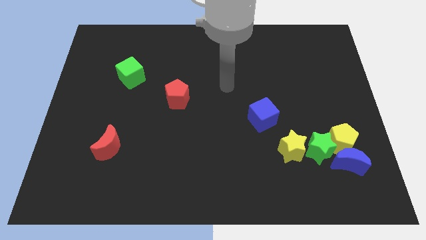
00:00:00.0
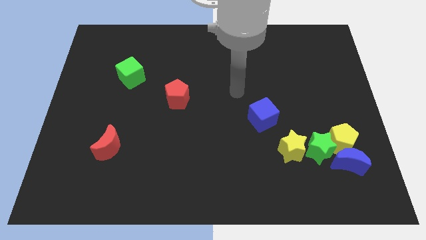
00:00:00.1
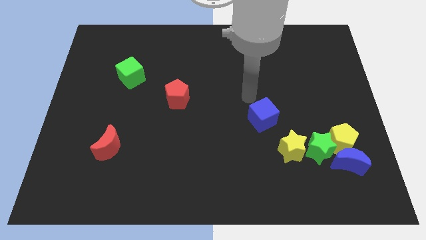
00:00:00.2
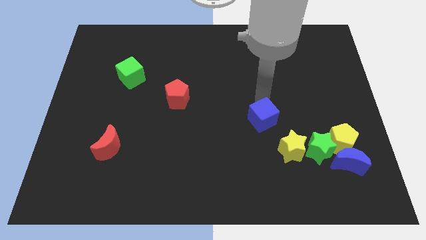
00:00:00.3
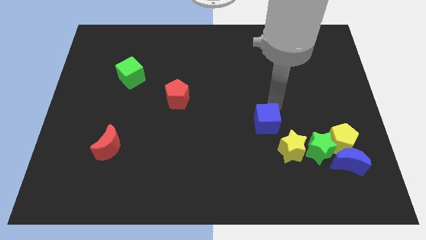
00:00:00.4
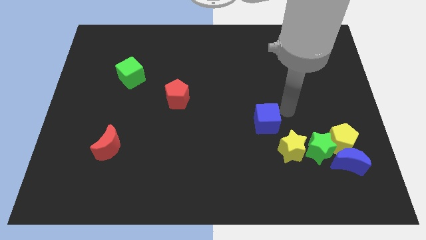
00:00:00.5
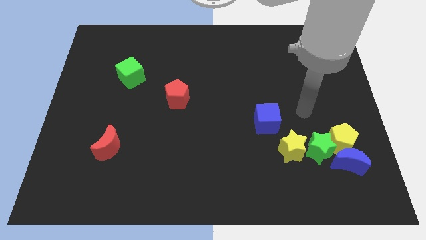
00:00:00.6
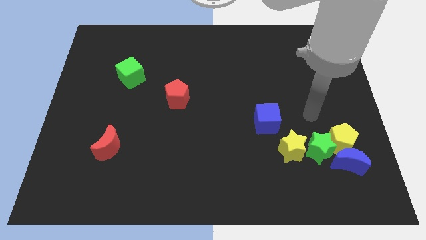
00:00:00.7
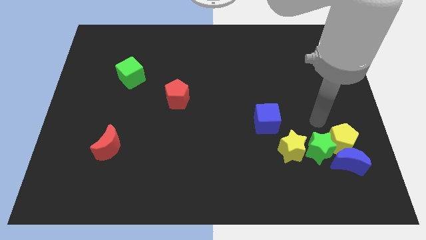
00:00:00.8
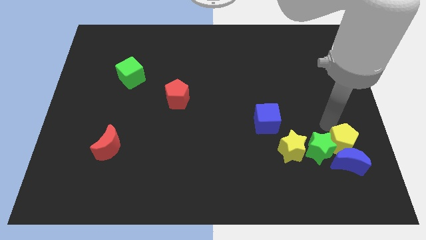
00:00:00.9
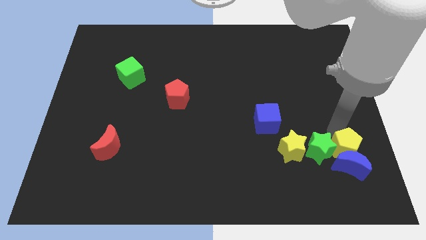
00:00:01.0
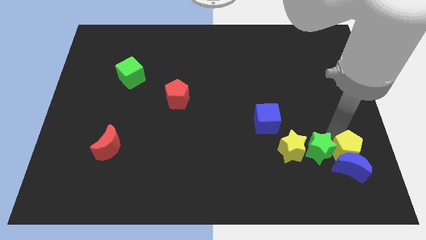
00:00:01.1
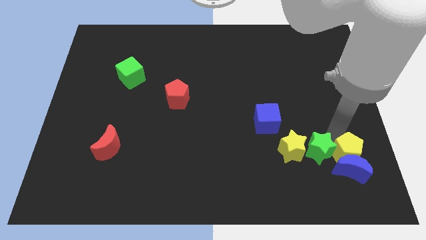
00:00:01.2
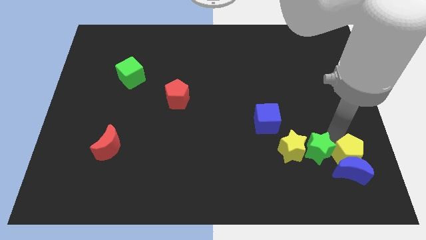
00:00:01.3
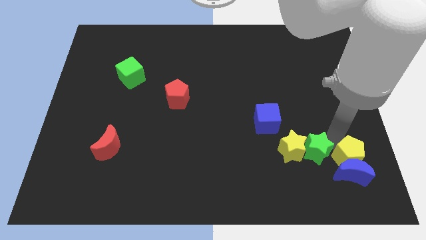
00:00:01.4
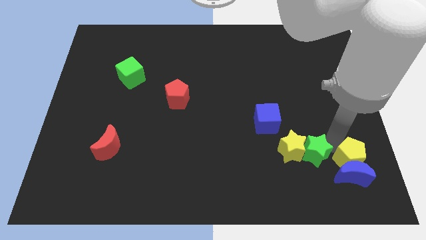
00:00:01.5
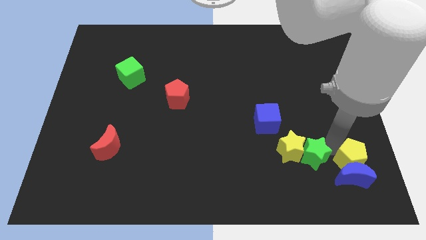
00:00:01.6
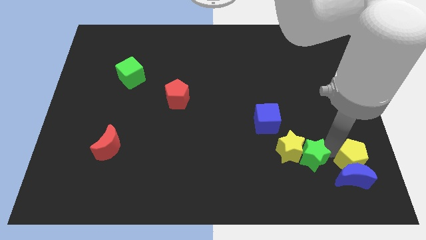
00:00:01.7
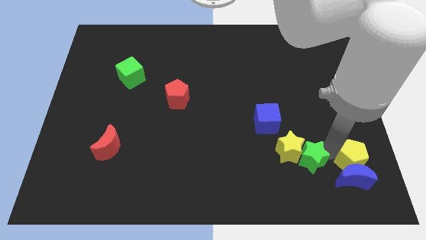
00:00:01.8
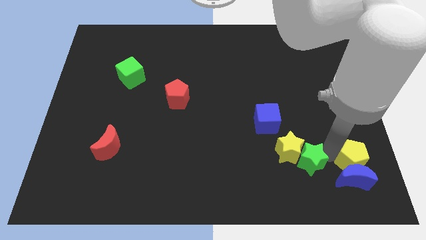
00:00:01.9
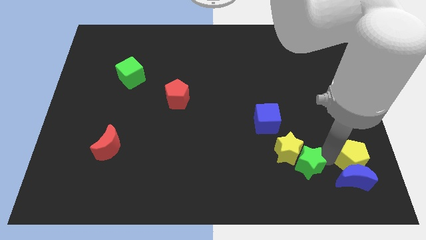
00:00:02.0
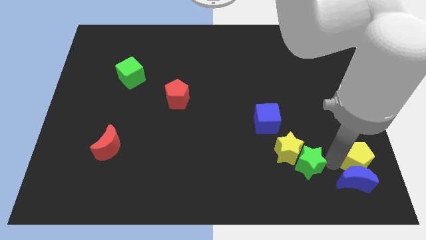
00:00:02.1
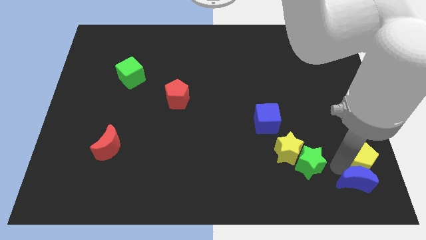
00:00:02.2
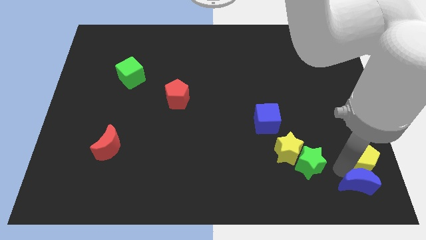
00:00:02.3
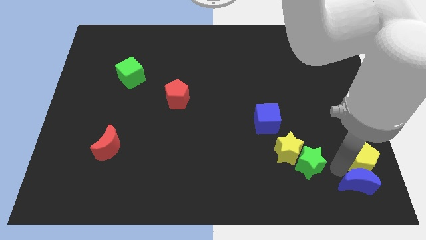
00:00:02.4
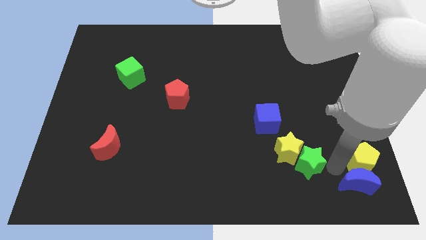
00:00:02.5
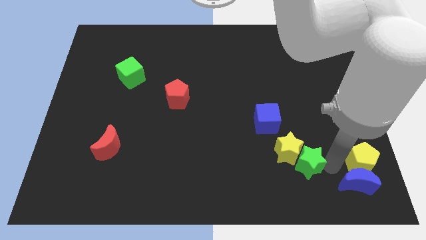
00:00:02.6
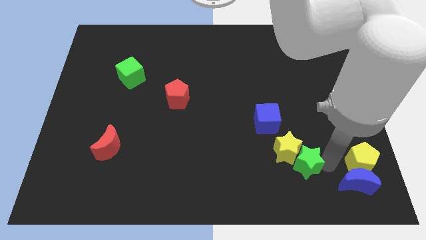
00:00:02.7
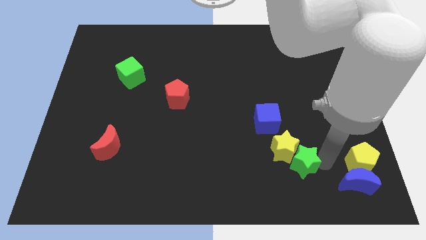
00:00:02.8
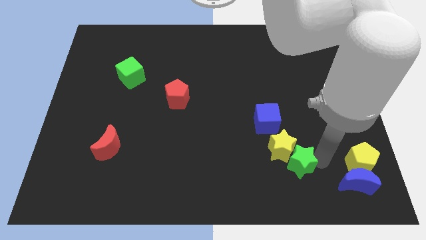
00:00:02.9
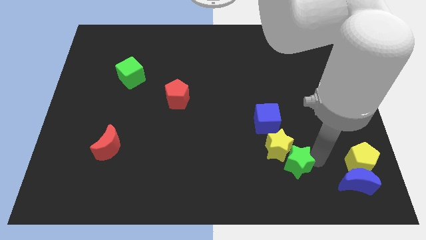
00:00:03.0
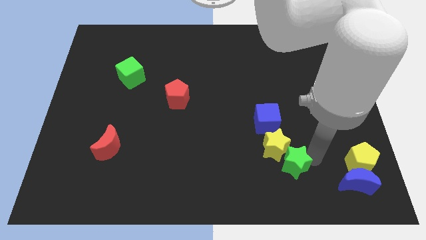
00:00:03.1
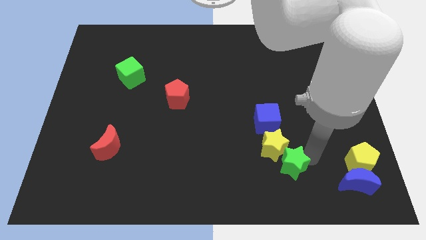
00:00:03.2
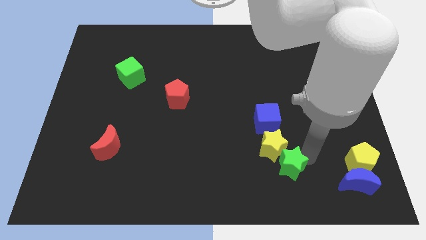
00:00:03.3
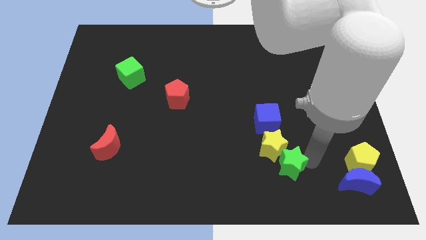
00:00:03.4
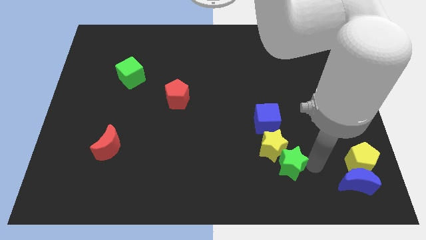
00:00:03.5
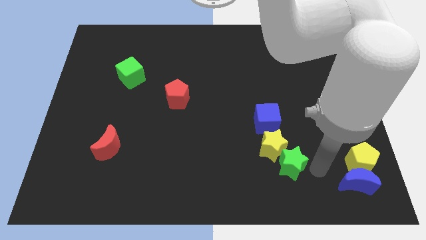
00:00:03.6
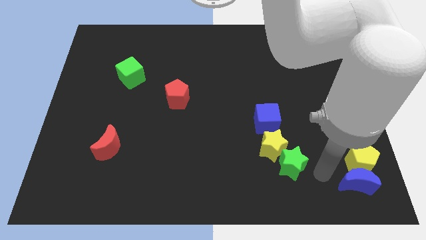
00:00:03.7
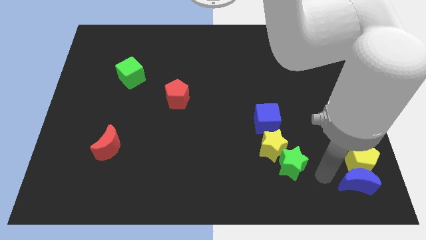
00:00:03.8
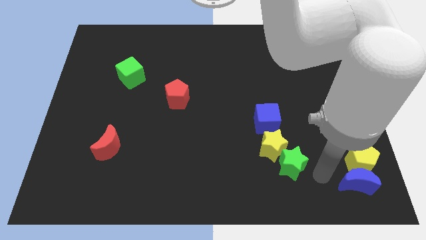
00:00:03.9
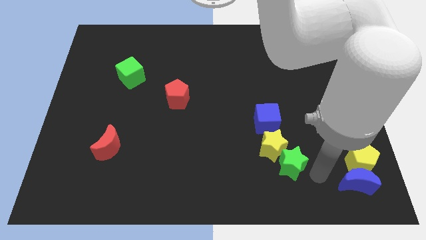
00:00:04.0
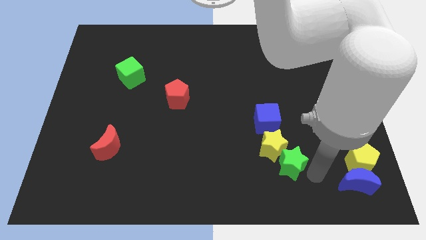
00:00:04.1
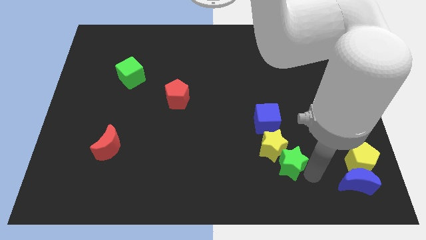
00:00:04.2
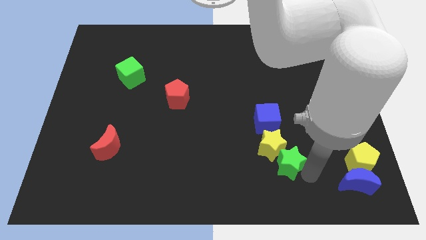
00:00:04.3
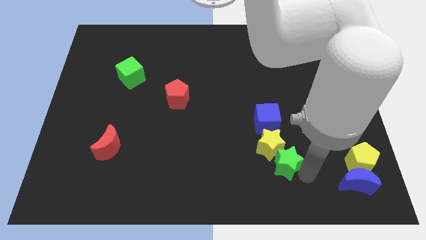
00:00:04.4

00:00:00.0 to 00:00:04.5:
push the green star a little left

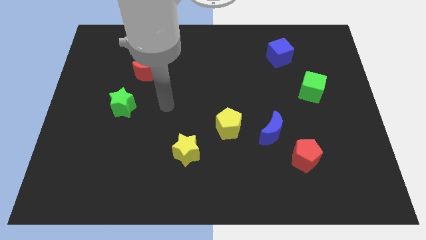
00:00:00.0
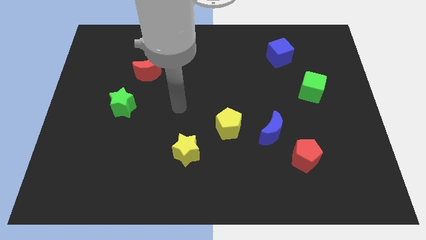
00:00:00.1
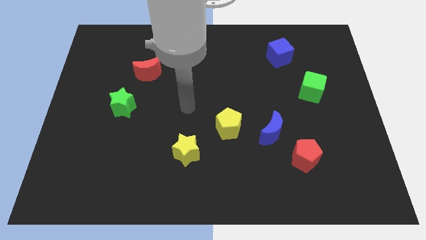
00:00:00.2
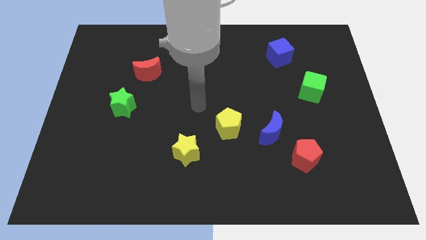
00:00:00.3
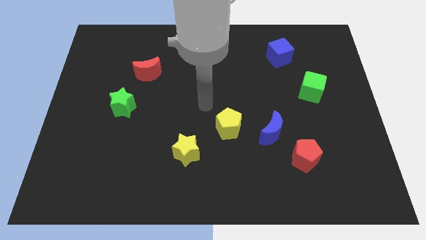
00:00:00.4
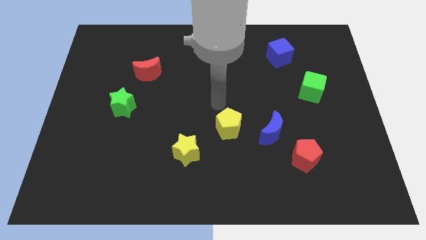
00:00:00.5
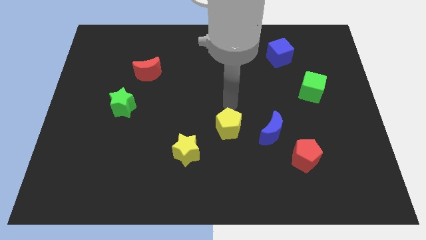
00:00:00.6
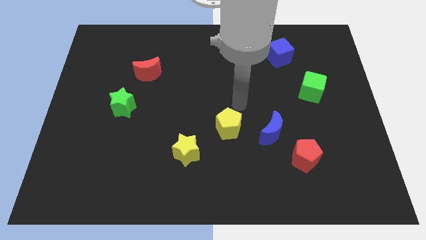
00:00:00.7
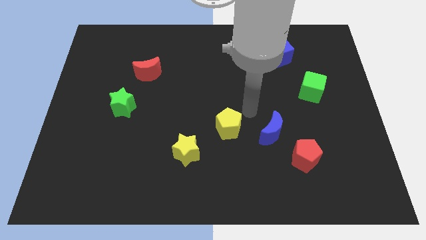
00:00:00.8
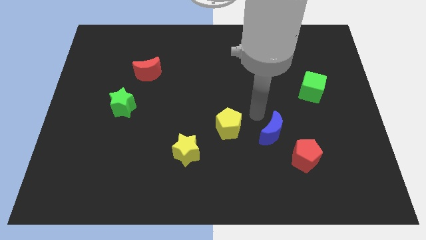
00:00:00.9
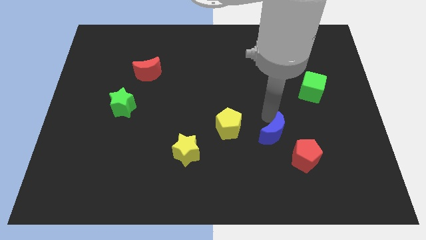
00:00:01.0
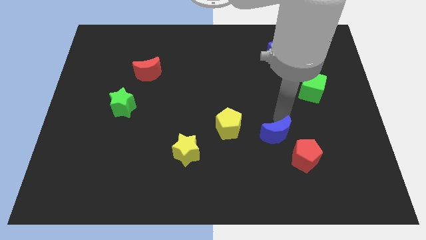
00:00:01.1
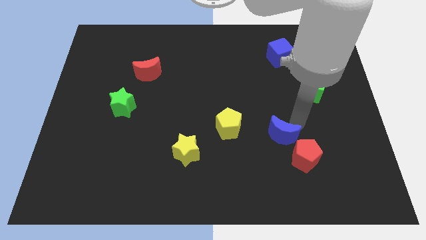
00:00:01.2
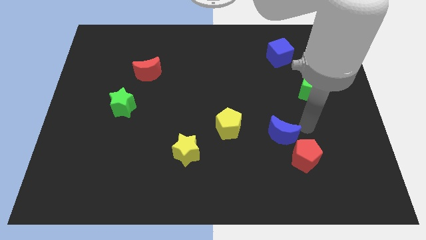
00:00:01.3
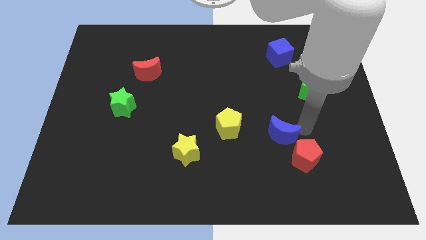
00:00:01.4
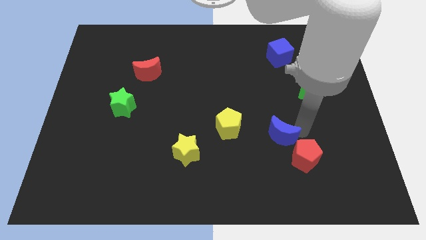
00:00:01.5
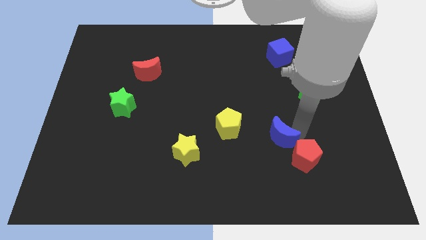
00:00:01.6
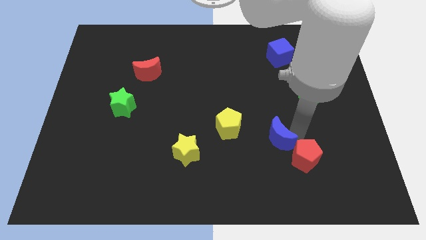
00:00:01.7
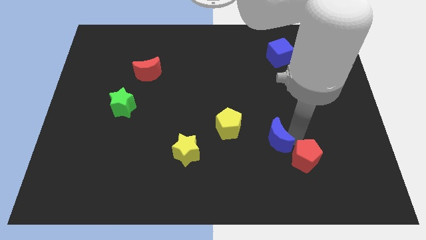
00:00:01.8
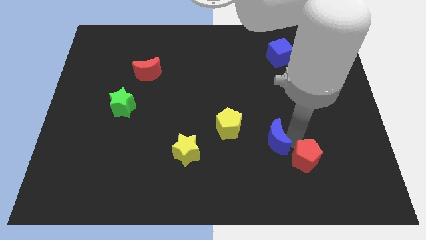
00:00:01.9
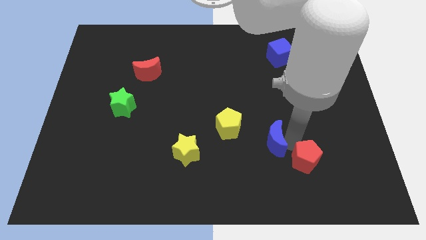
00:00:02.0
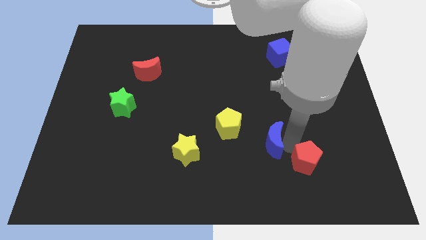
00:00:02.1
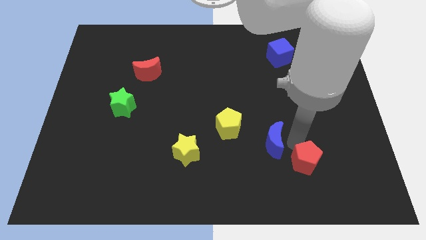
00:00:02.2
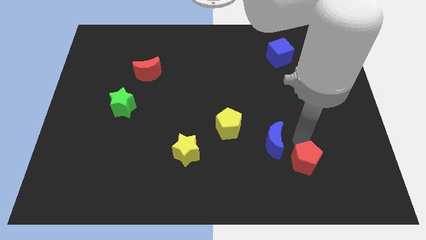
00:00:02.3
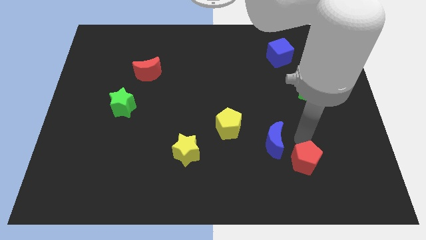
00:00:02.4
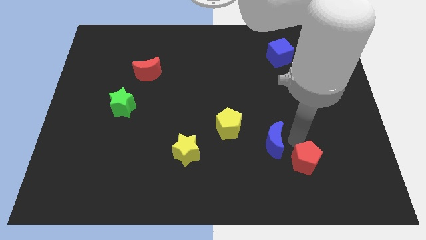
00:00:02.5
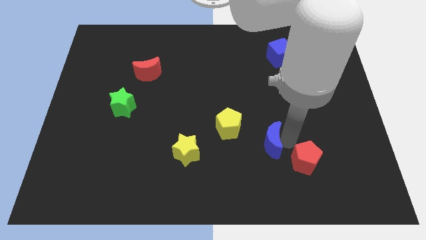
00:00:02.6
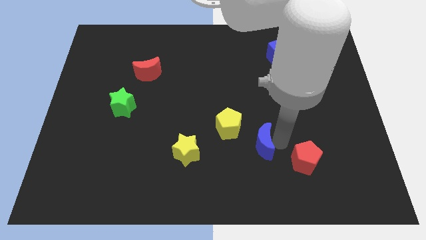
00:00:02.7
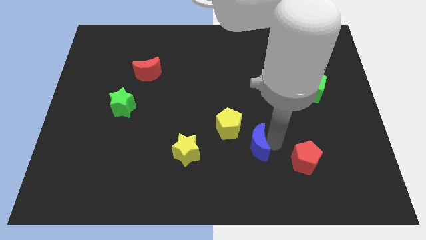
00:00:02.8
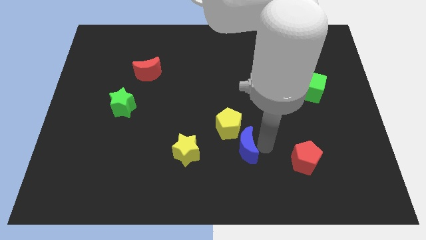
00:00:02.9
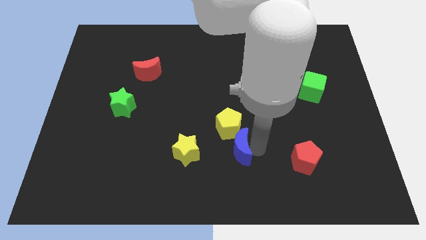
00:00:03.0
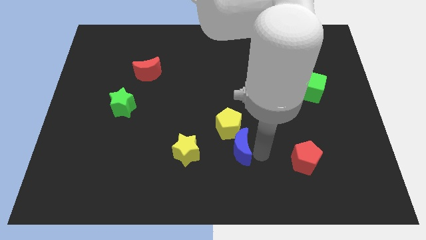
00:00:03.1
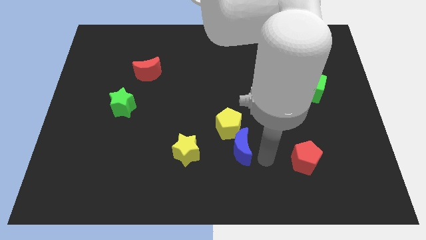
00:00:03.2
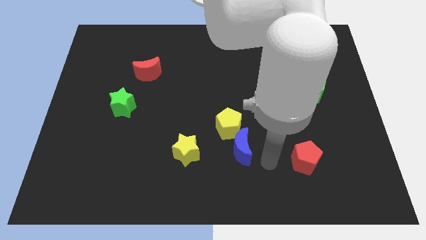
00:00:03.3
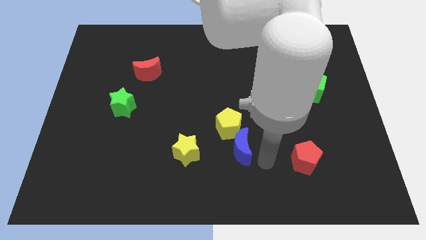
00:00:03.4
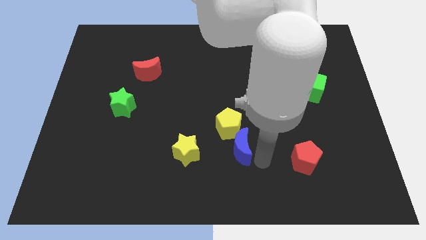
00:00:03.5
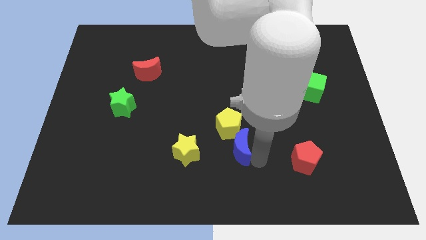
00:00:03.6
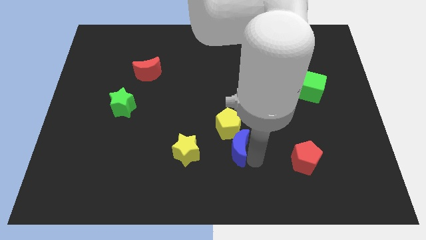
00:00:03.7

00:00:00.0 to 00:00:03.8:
slightly slide the blue moon to the left

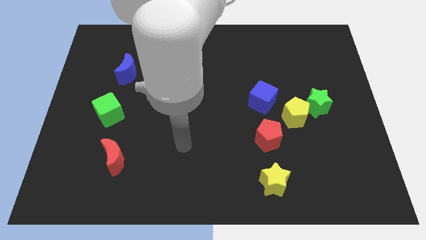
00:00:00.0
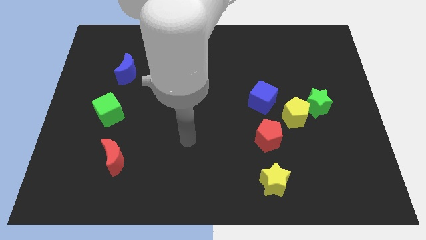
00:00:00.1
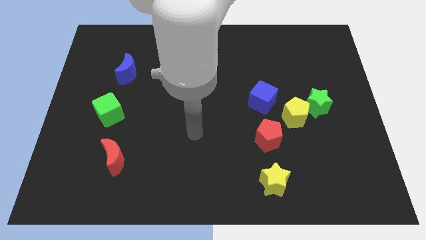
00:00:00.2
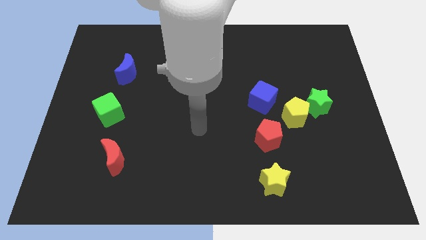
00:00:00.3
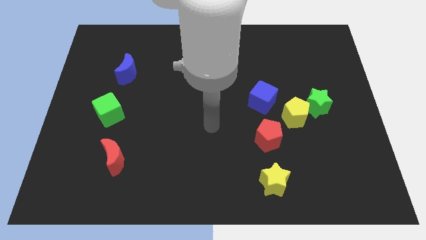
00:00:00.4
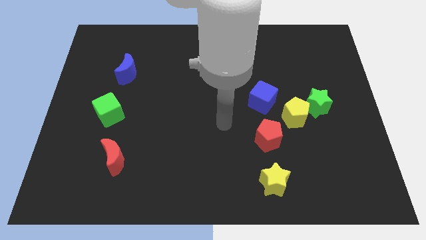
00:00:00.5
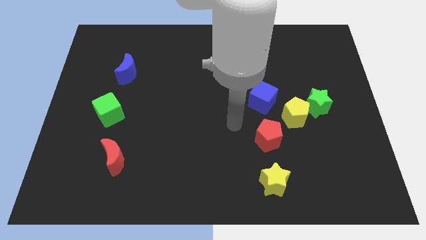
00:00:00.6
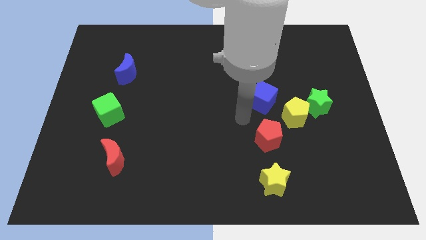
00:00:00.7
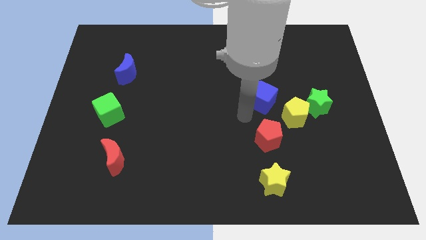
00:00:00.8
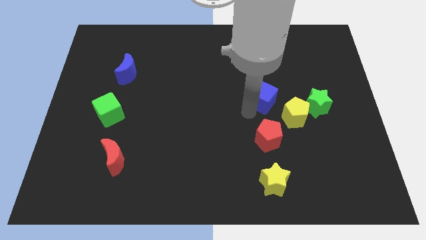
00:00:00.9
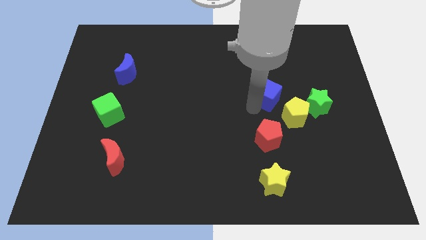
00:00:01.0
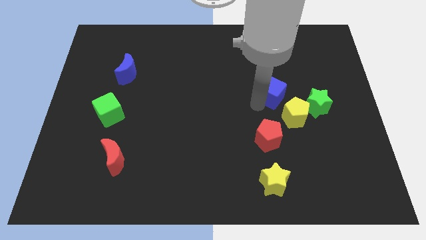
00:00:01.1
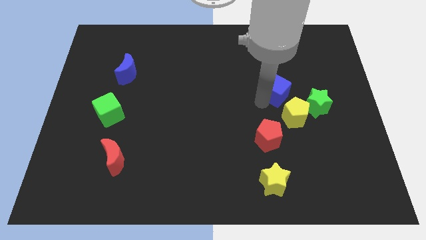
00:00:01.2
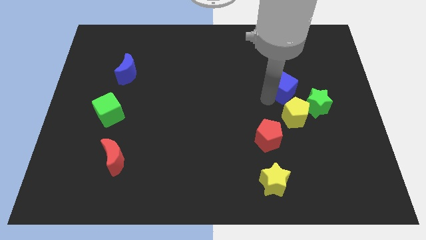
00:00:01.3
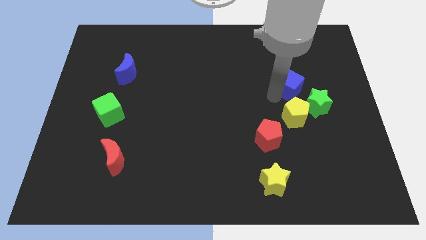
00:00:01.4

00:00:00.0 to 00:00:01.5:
move the blue cube up and then to the right a little
